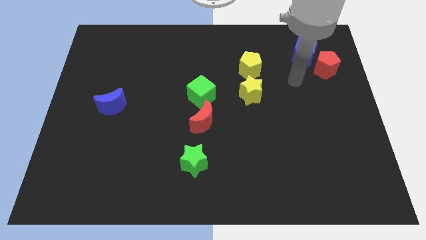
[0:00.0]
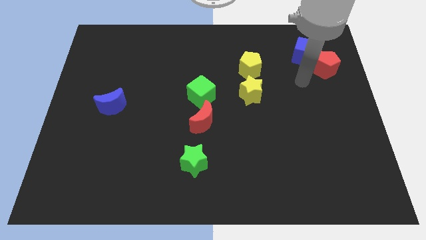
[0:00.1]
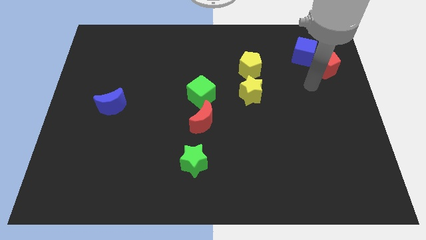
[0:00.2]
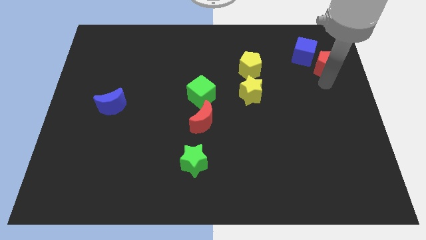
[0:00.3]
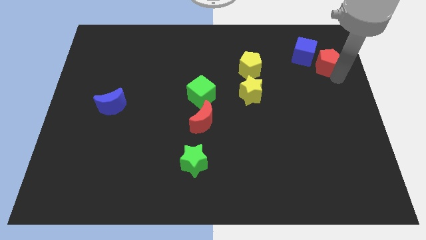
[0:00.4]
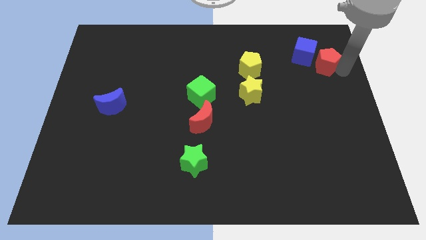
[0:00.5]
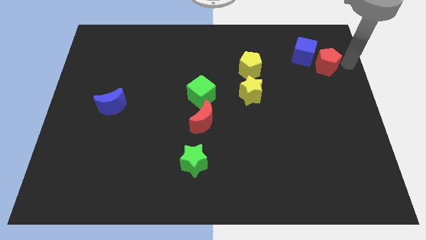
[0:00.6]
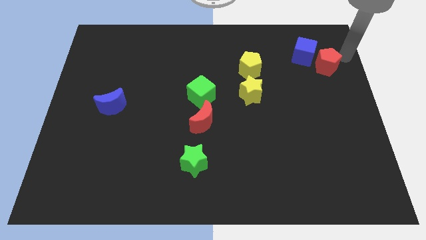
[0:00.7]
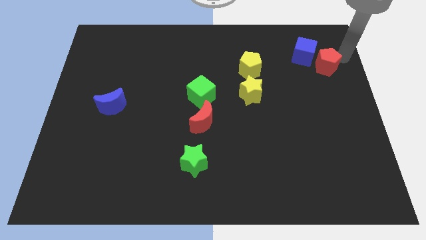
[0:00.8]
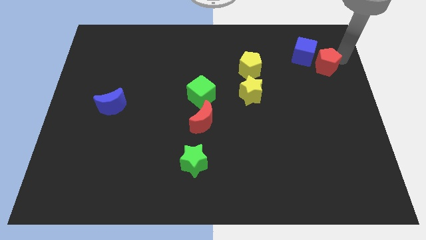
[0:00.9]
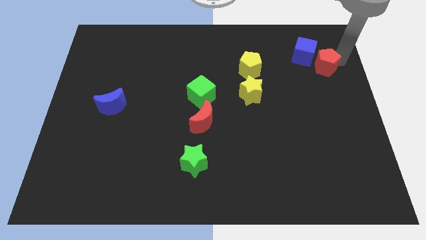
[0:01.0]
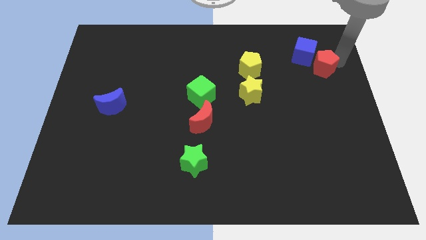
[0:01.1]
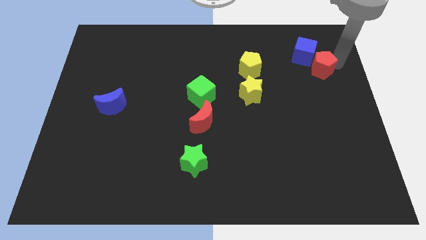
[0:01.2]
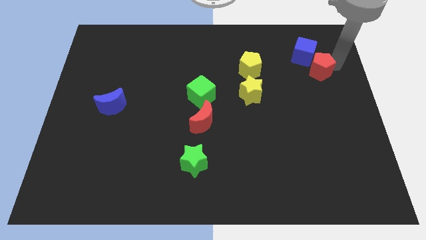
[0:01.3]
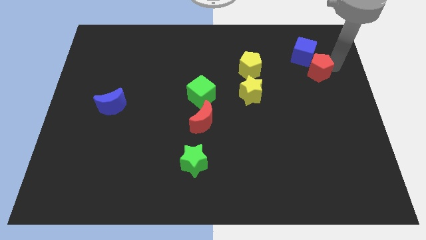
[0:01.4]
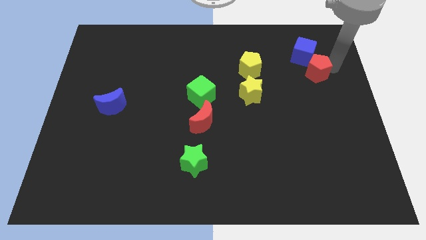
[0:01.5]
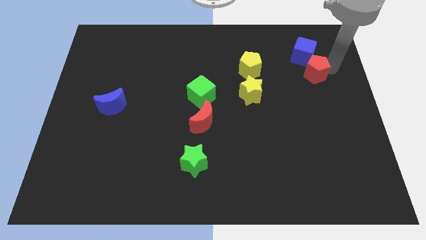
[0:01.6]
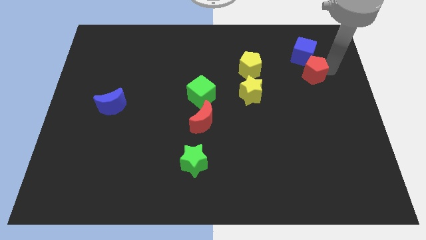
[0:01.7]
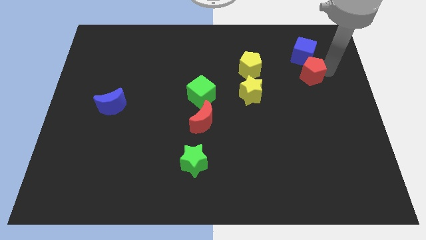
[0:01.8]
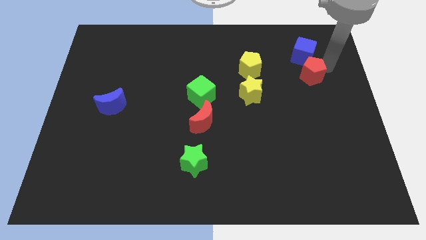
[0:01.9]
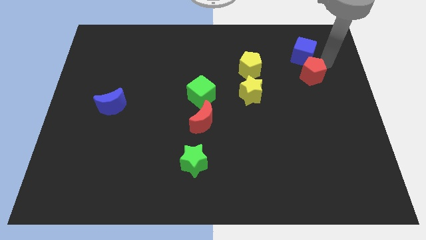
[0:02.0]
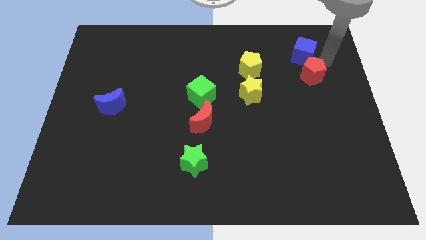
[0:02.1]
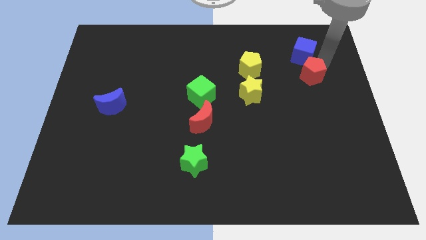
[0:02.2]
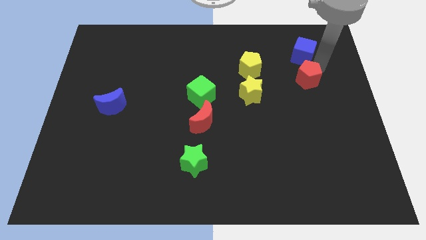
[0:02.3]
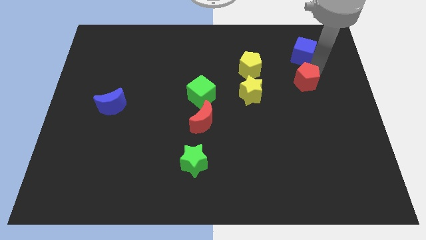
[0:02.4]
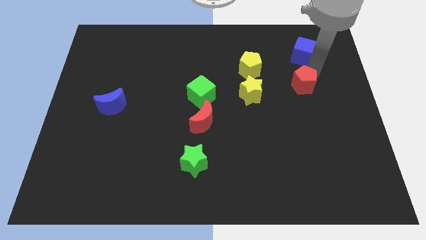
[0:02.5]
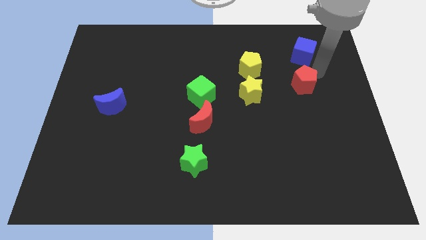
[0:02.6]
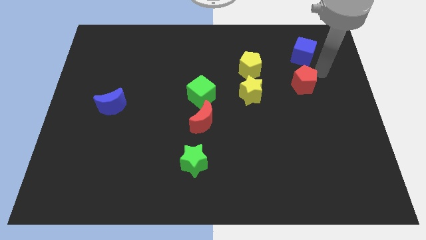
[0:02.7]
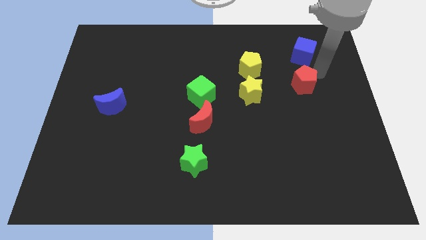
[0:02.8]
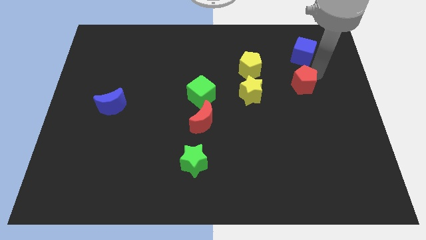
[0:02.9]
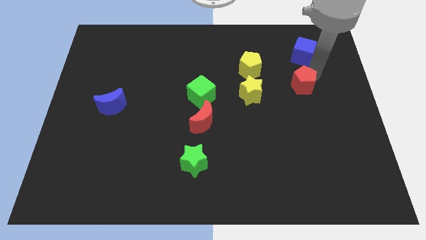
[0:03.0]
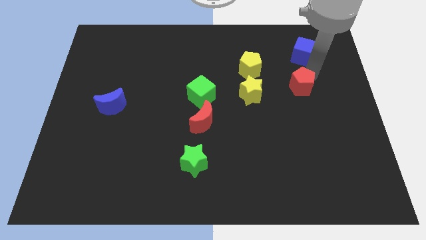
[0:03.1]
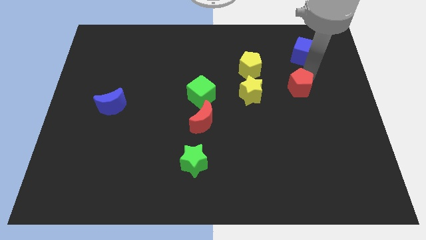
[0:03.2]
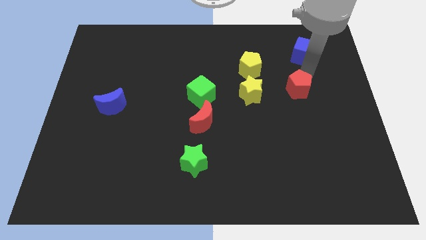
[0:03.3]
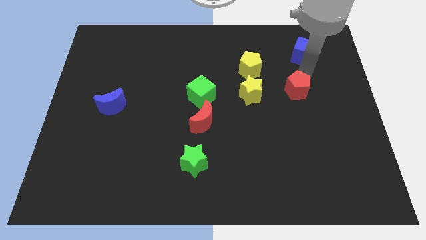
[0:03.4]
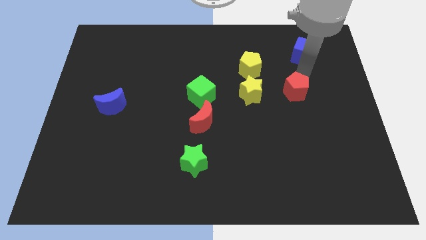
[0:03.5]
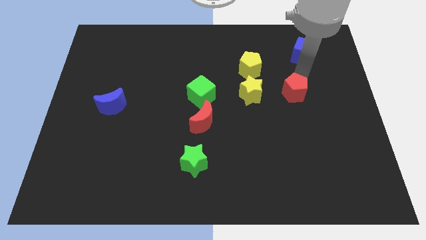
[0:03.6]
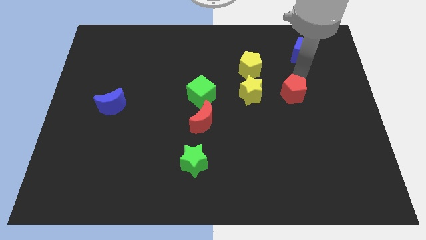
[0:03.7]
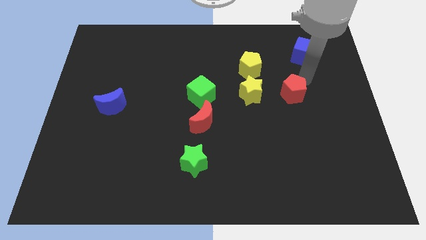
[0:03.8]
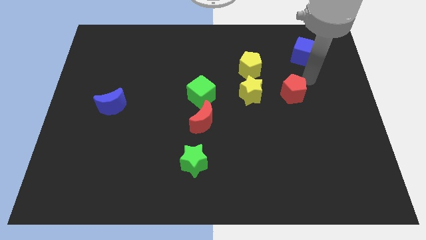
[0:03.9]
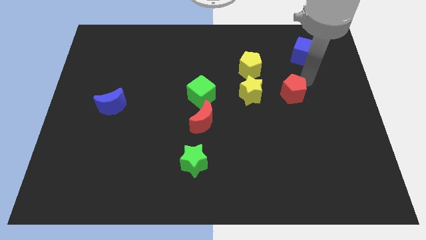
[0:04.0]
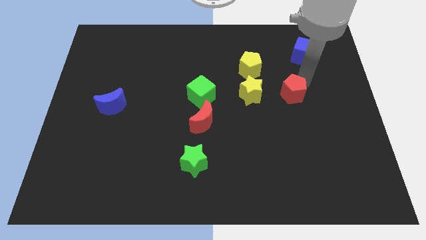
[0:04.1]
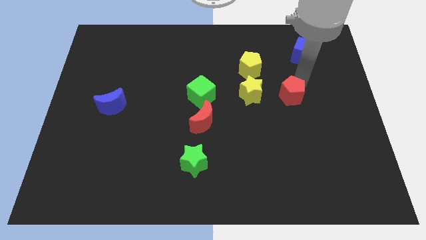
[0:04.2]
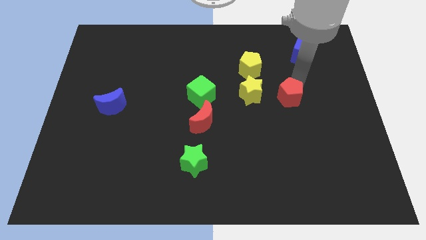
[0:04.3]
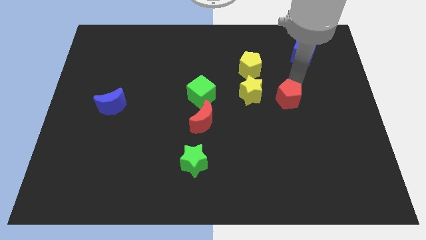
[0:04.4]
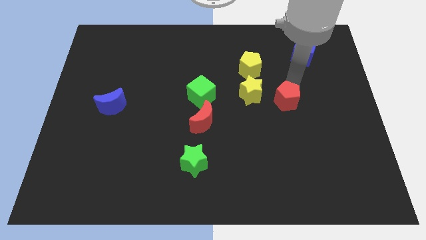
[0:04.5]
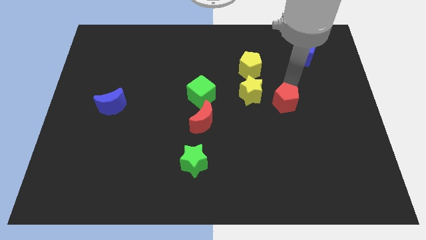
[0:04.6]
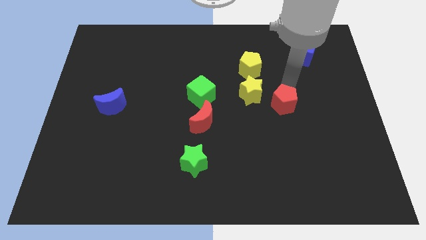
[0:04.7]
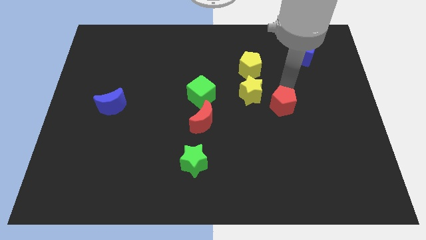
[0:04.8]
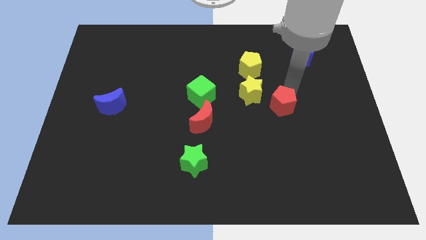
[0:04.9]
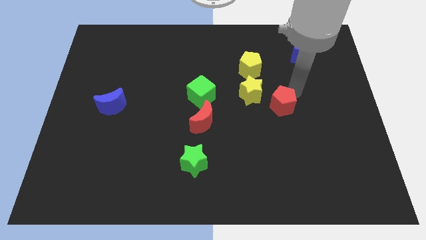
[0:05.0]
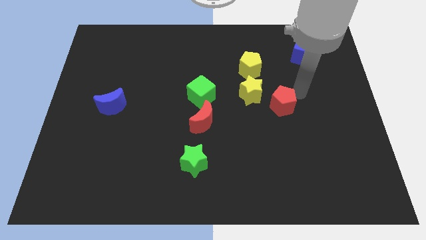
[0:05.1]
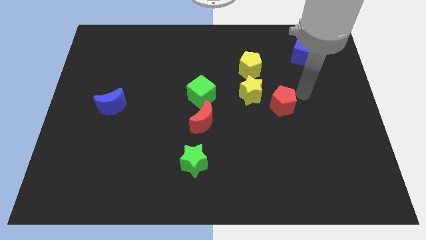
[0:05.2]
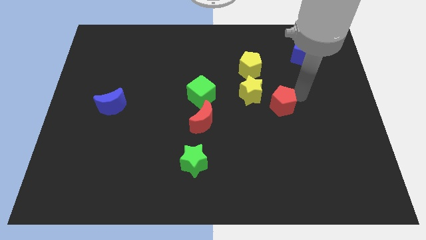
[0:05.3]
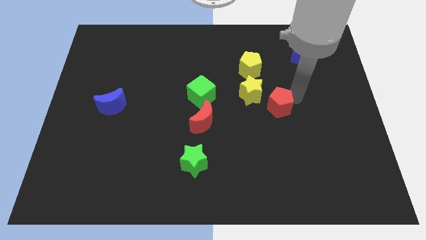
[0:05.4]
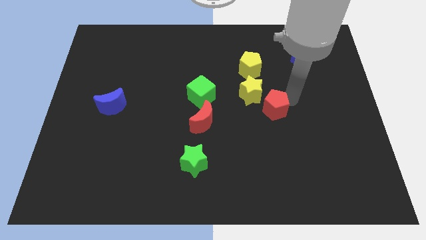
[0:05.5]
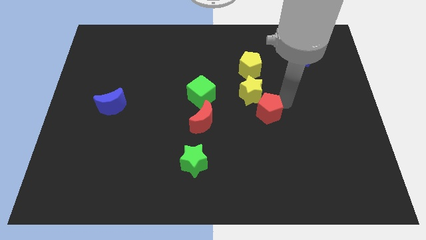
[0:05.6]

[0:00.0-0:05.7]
push the red pentagon right of the red moon

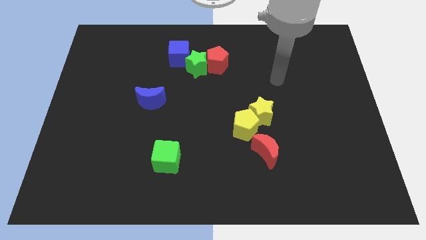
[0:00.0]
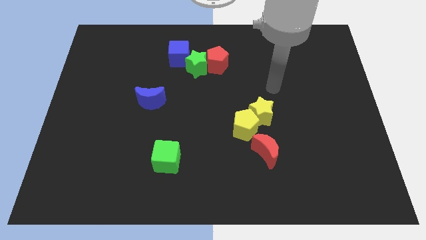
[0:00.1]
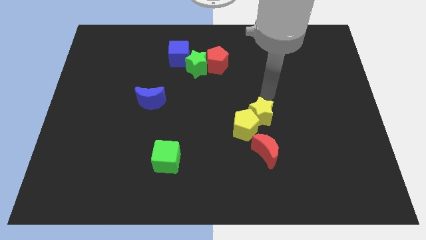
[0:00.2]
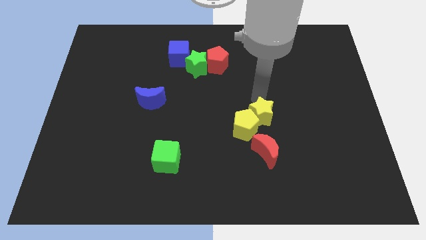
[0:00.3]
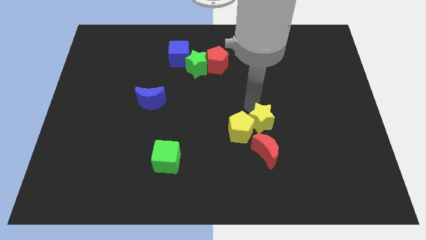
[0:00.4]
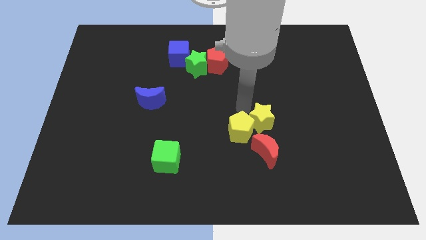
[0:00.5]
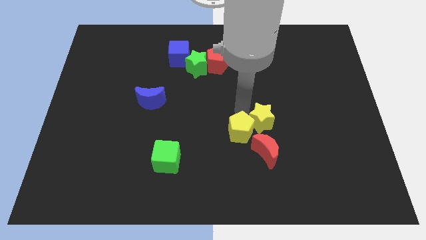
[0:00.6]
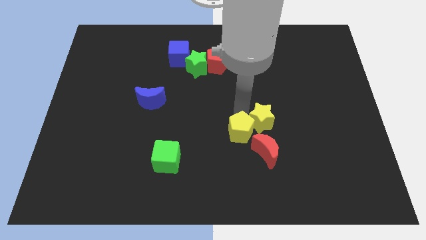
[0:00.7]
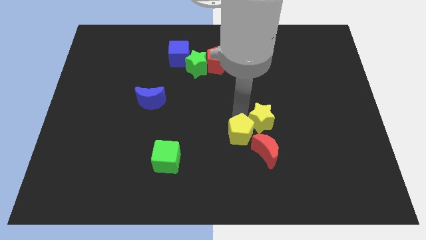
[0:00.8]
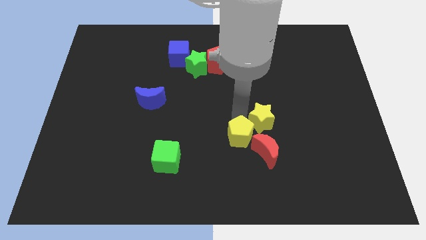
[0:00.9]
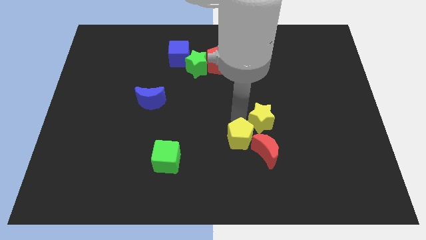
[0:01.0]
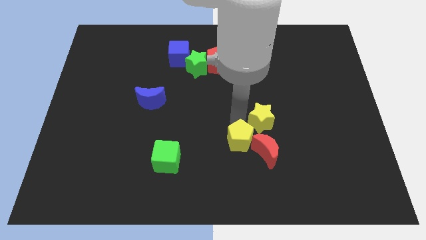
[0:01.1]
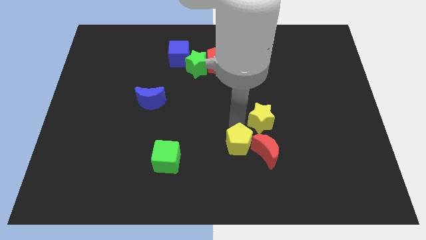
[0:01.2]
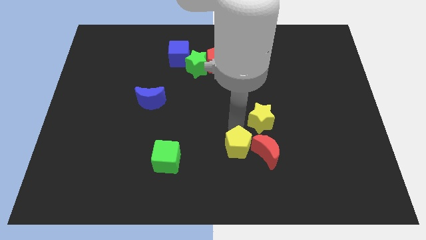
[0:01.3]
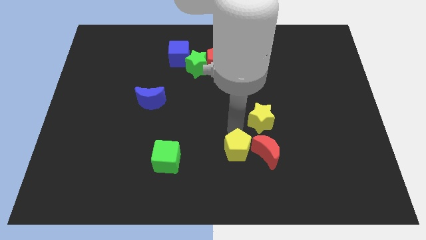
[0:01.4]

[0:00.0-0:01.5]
push the yellow pentagon to the bottom left side of the red moon
